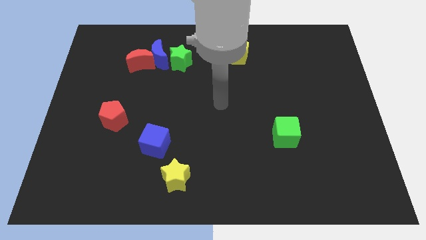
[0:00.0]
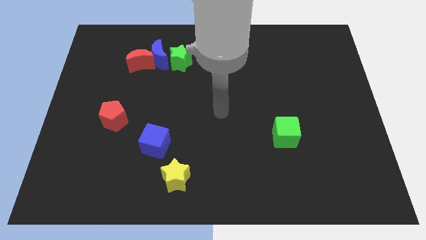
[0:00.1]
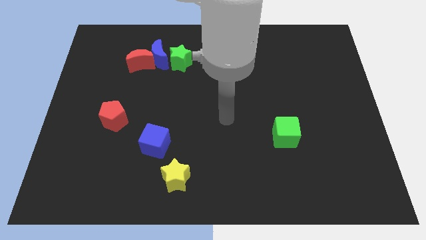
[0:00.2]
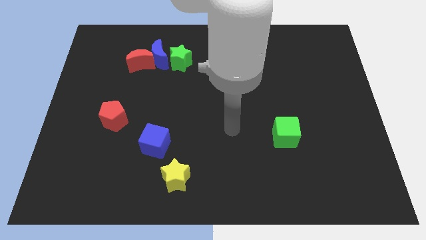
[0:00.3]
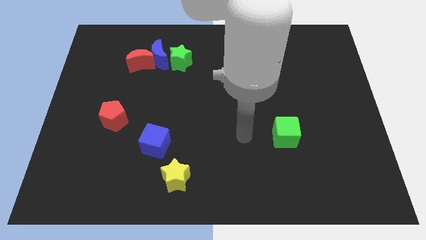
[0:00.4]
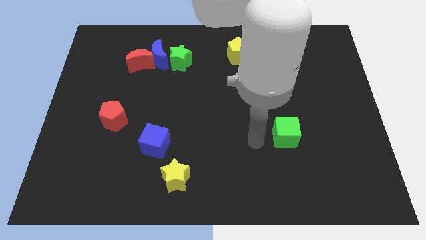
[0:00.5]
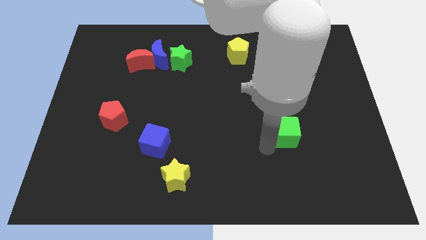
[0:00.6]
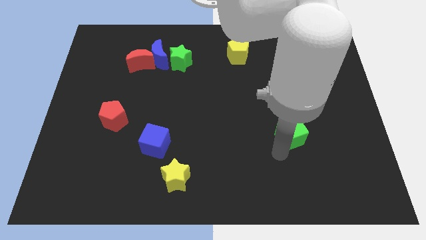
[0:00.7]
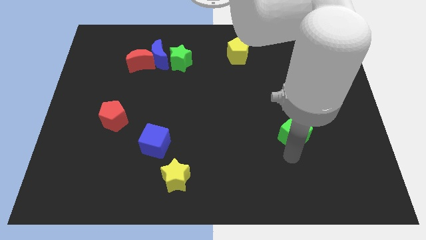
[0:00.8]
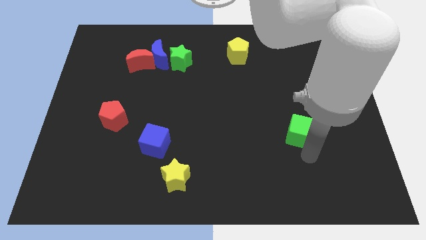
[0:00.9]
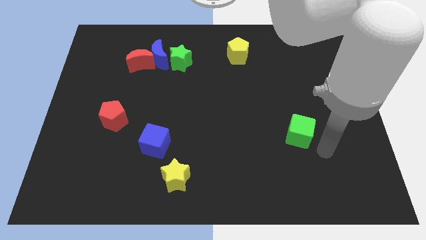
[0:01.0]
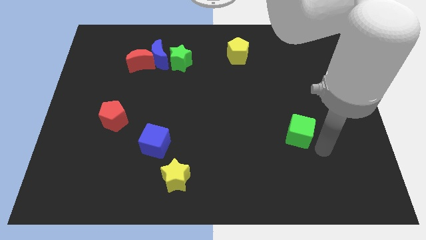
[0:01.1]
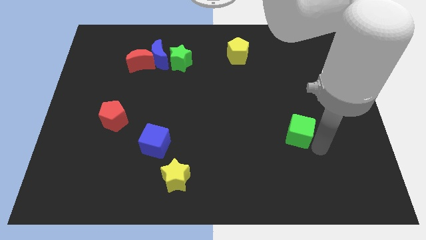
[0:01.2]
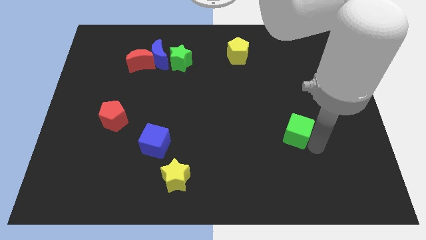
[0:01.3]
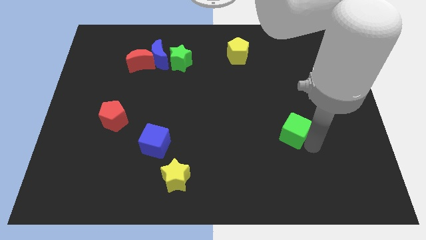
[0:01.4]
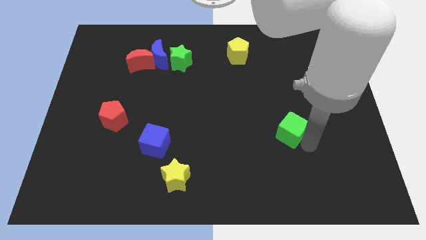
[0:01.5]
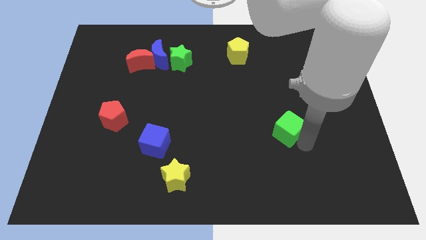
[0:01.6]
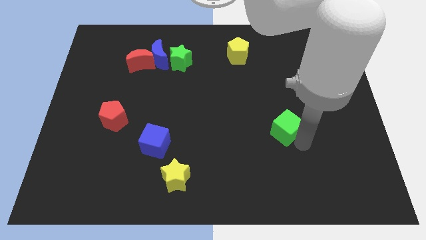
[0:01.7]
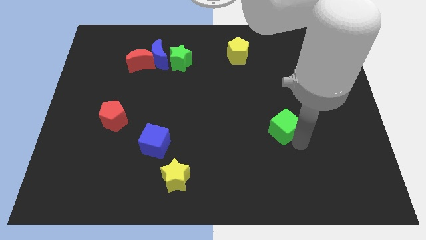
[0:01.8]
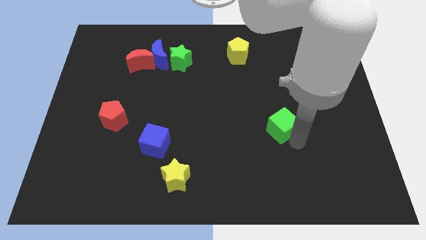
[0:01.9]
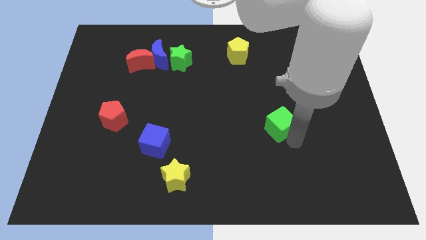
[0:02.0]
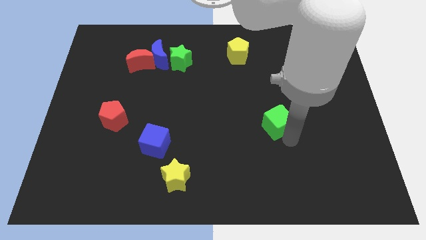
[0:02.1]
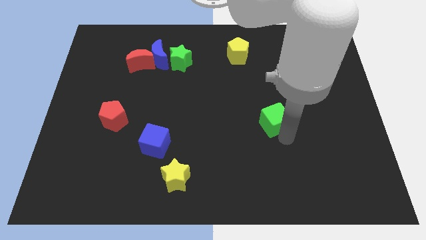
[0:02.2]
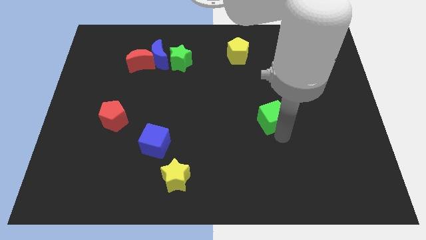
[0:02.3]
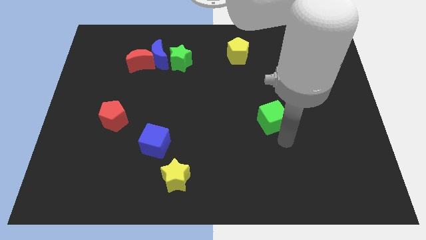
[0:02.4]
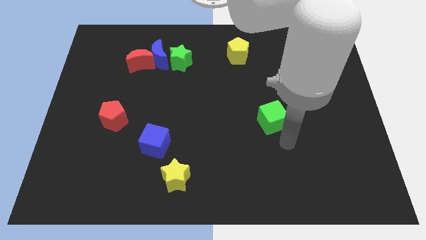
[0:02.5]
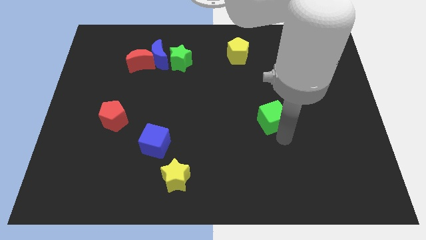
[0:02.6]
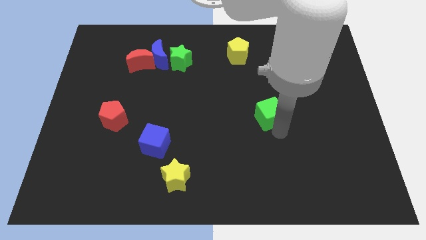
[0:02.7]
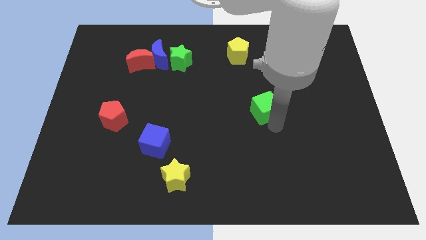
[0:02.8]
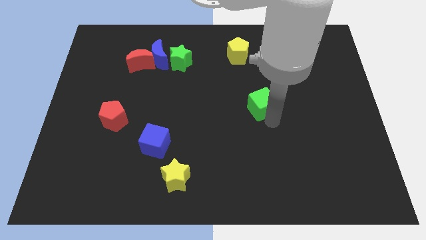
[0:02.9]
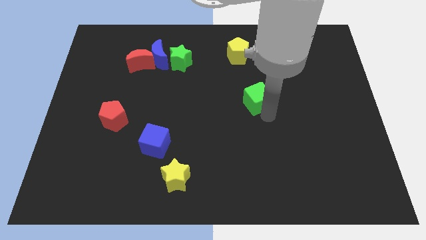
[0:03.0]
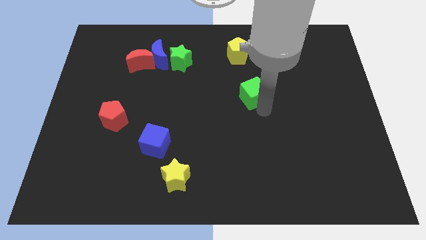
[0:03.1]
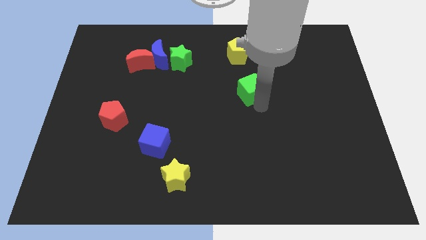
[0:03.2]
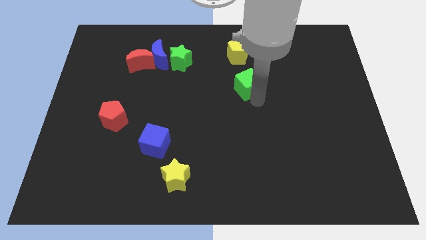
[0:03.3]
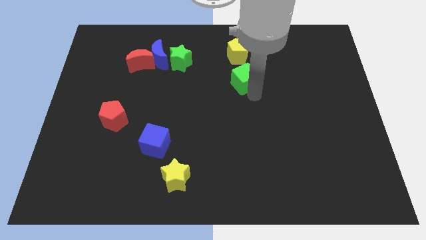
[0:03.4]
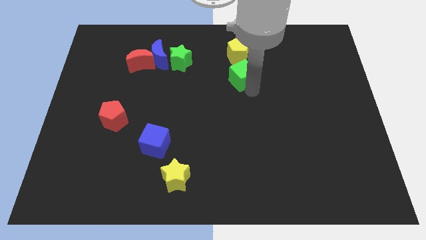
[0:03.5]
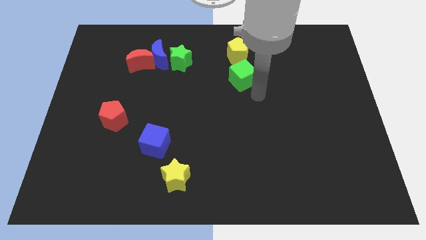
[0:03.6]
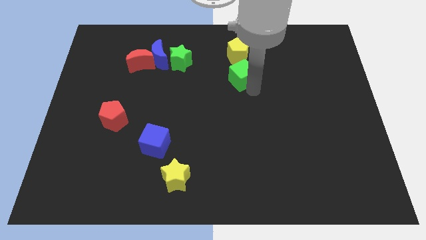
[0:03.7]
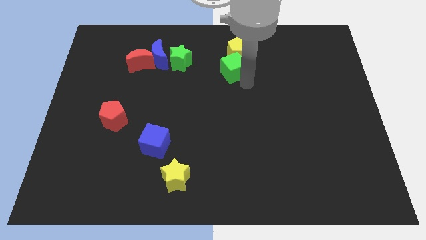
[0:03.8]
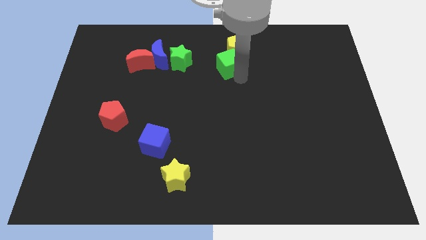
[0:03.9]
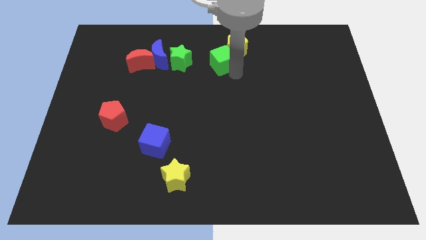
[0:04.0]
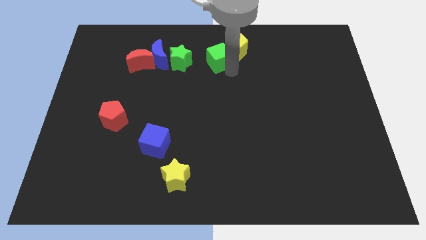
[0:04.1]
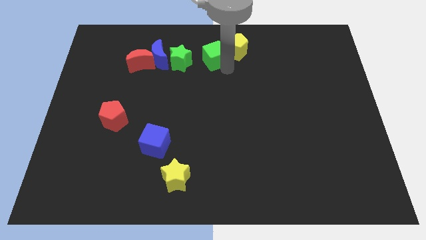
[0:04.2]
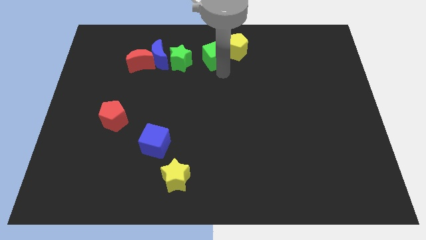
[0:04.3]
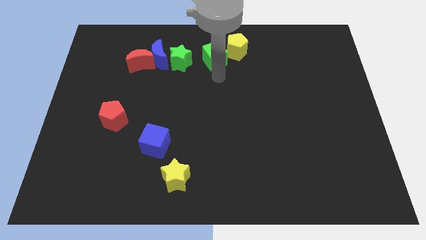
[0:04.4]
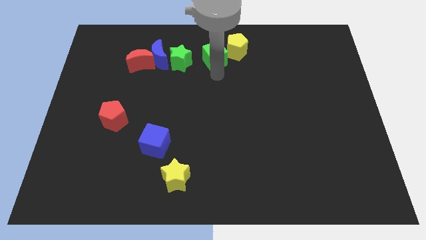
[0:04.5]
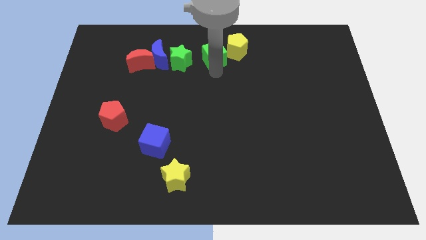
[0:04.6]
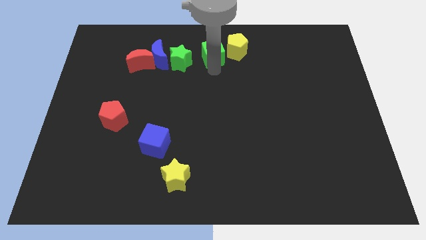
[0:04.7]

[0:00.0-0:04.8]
move the green cube to the top

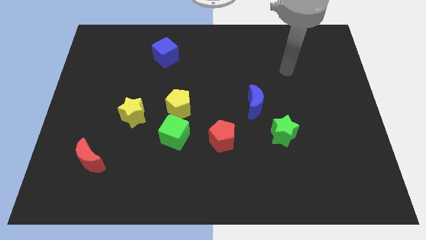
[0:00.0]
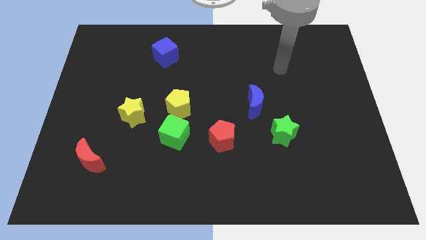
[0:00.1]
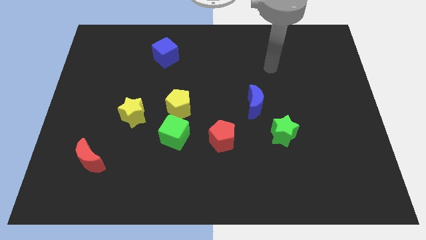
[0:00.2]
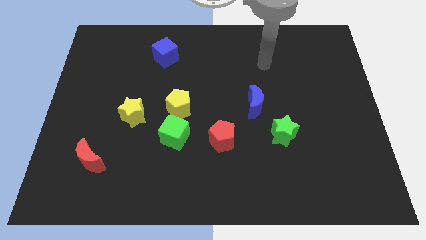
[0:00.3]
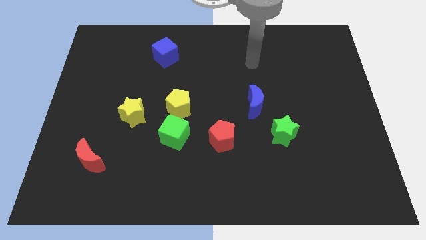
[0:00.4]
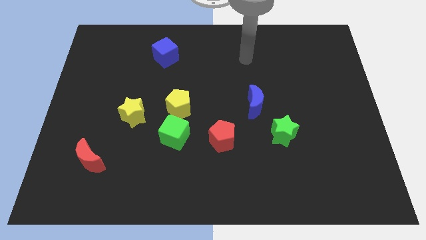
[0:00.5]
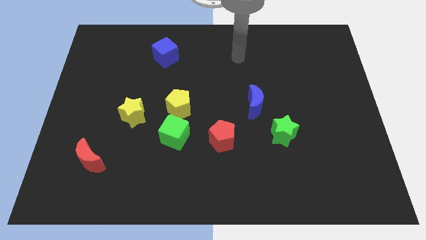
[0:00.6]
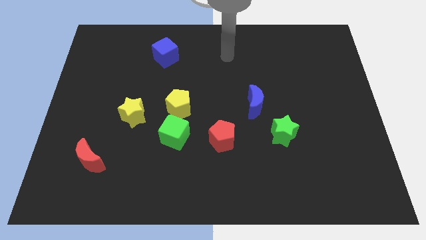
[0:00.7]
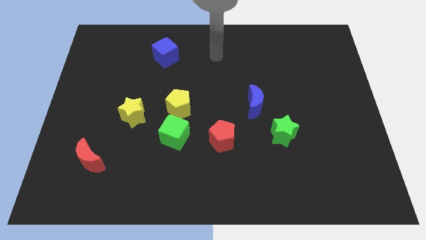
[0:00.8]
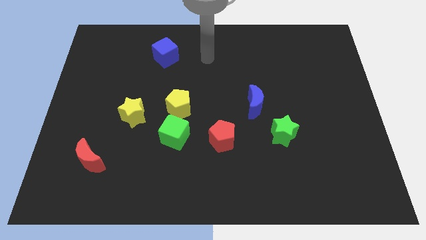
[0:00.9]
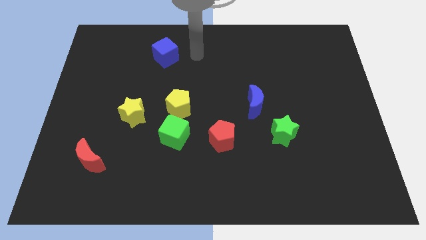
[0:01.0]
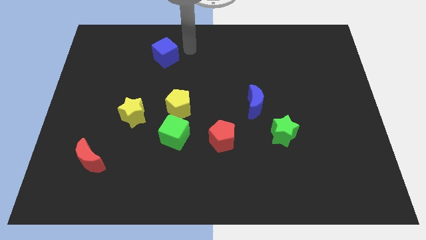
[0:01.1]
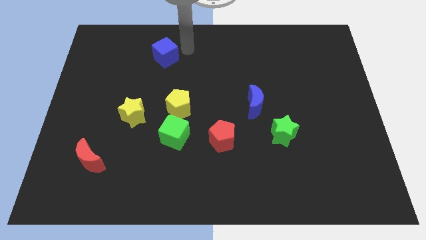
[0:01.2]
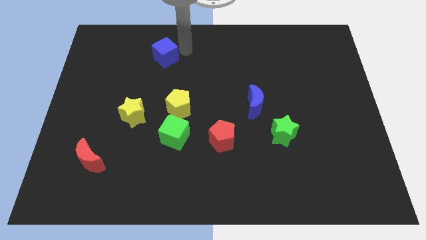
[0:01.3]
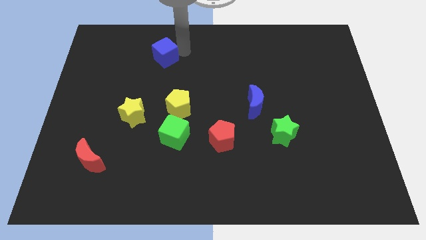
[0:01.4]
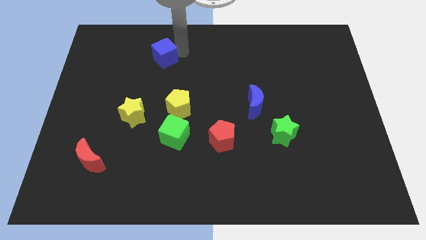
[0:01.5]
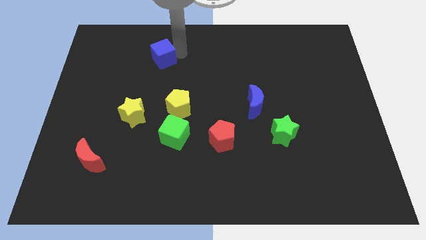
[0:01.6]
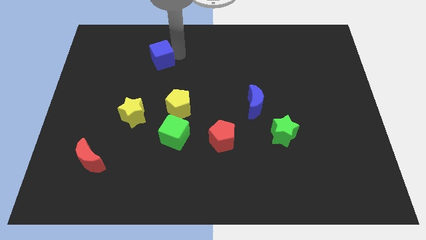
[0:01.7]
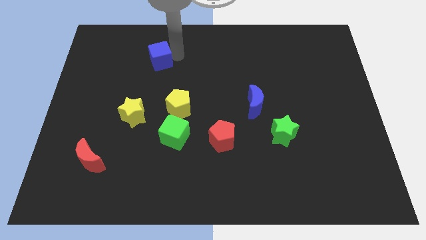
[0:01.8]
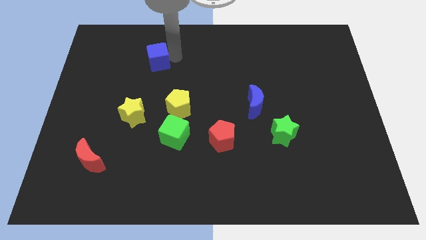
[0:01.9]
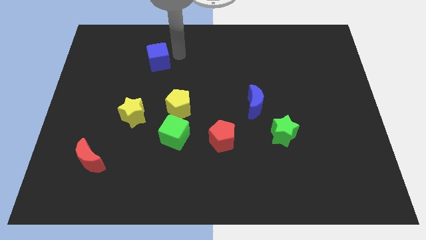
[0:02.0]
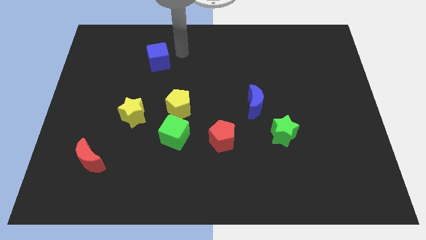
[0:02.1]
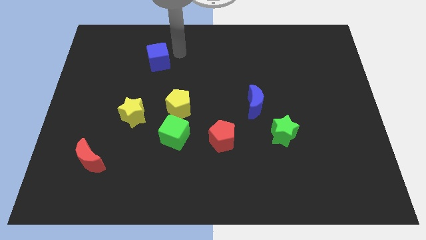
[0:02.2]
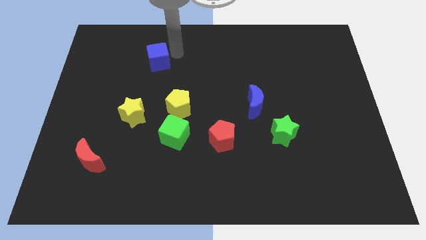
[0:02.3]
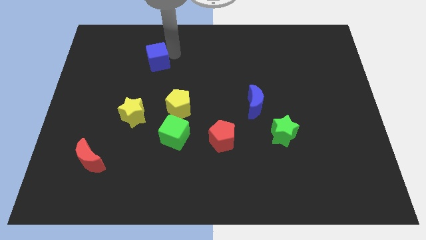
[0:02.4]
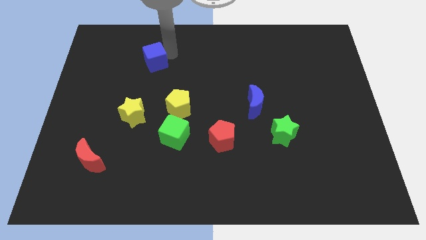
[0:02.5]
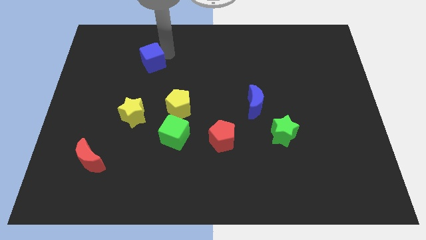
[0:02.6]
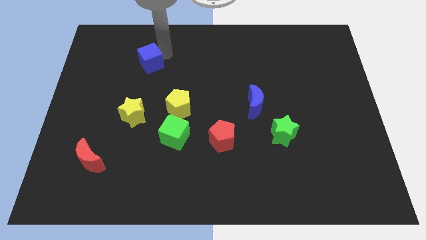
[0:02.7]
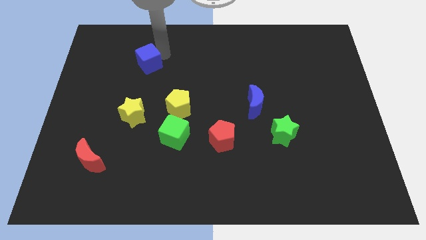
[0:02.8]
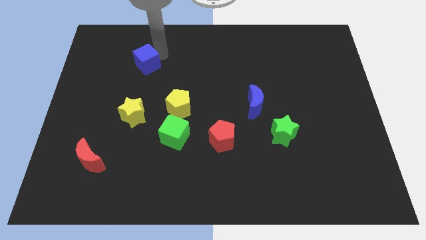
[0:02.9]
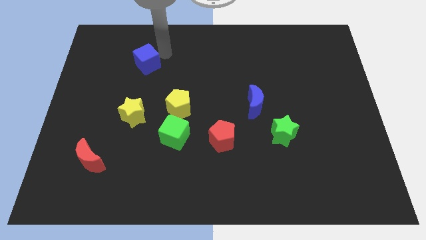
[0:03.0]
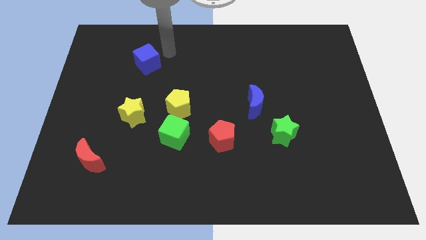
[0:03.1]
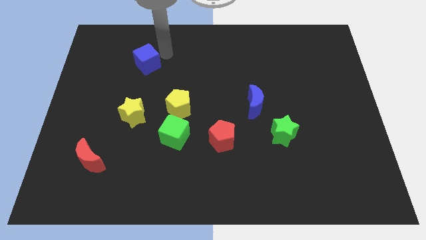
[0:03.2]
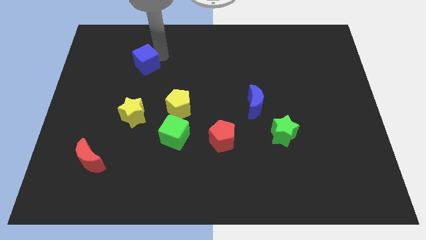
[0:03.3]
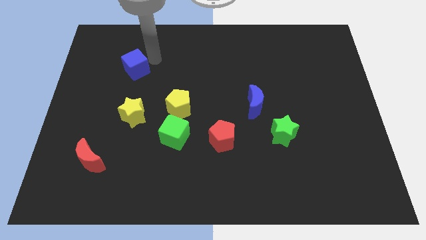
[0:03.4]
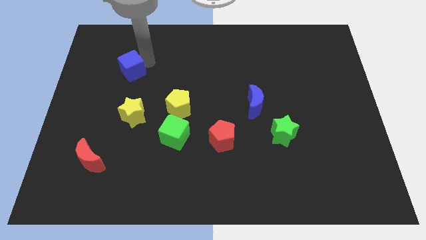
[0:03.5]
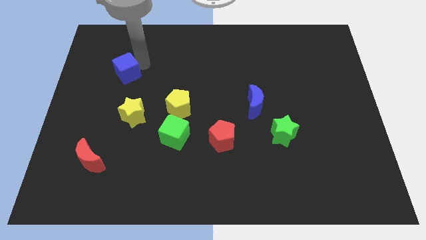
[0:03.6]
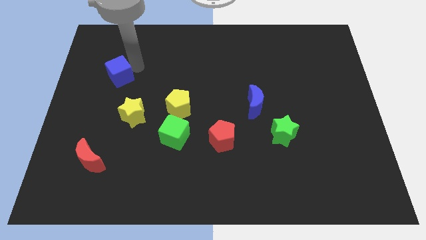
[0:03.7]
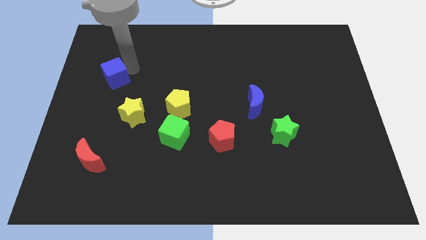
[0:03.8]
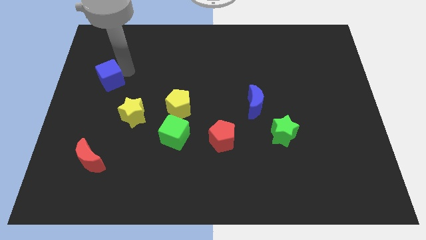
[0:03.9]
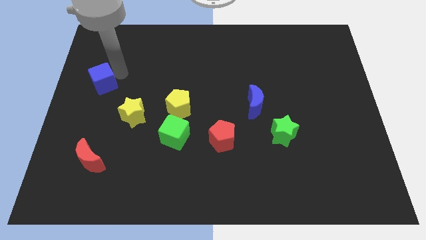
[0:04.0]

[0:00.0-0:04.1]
push the blue cube to the center left
